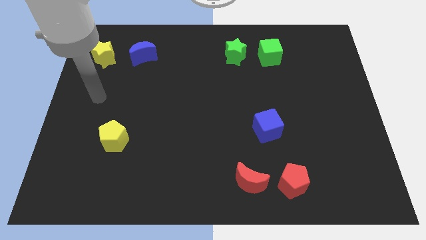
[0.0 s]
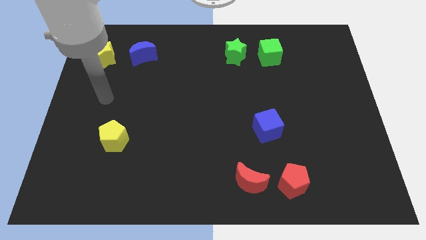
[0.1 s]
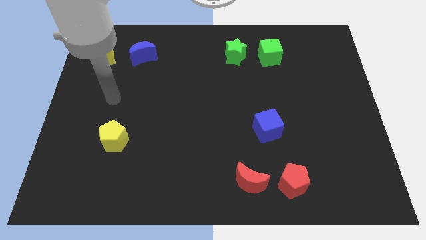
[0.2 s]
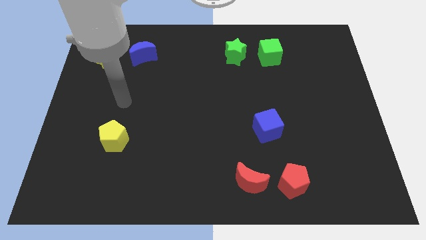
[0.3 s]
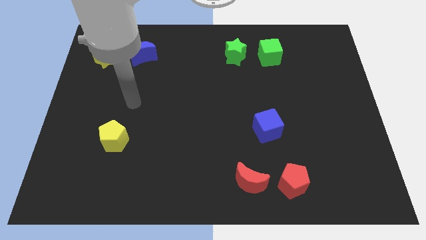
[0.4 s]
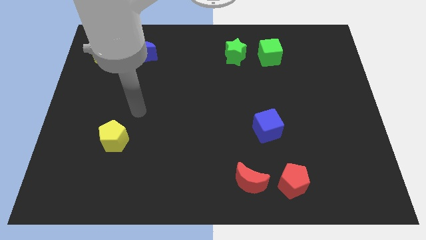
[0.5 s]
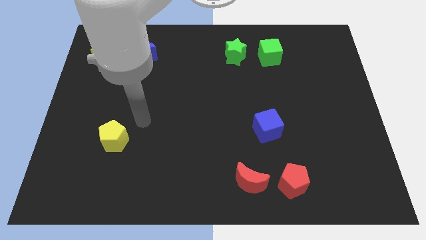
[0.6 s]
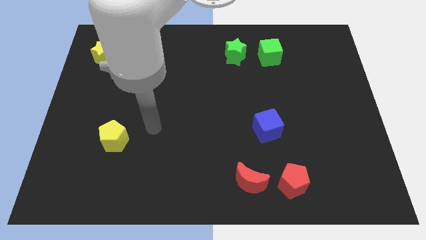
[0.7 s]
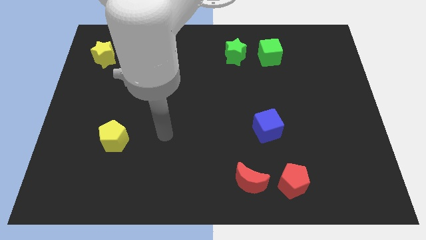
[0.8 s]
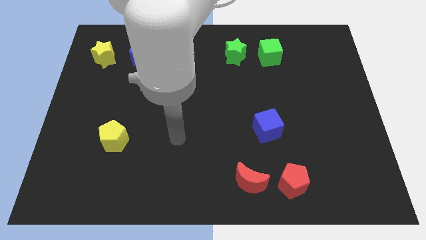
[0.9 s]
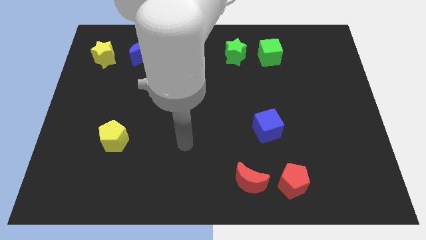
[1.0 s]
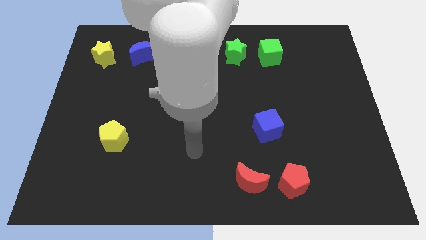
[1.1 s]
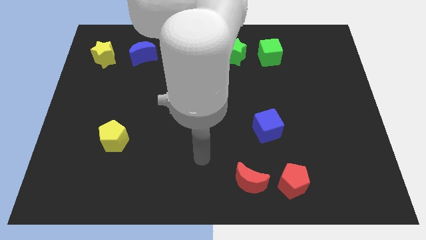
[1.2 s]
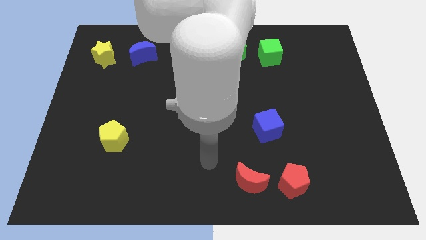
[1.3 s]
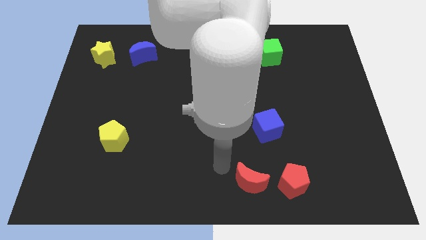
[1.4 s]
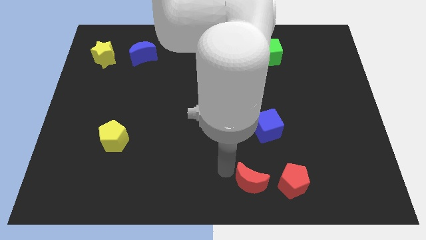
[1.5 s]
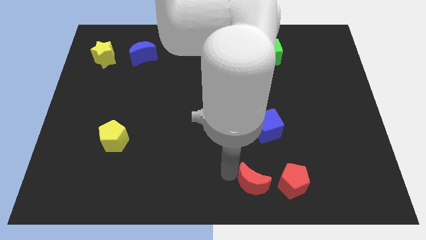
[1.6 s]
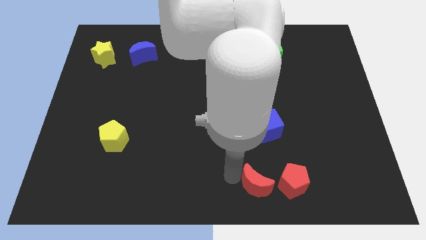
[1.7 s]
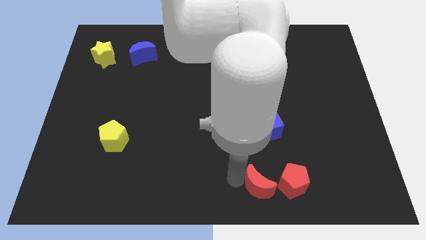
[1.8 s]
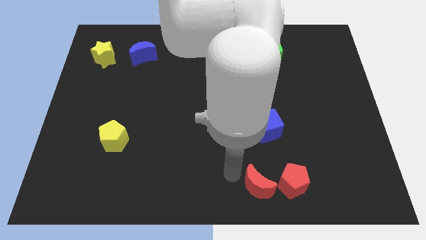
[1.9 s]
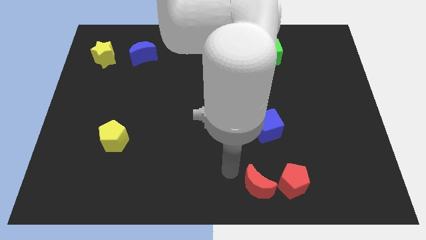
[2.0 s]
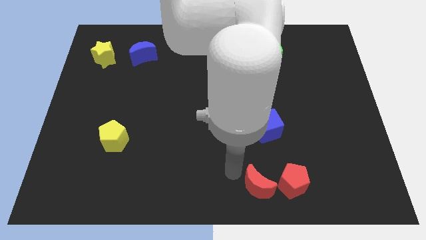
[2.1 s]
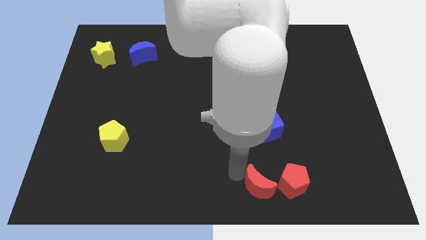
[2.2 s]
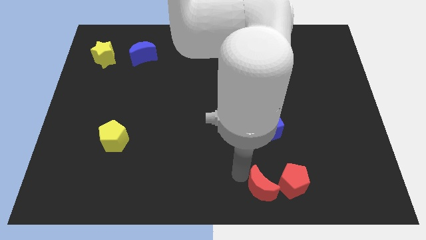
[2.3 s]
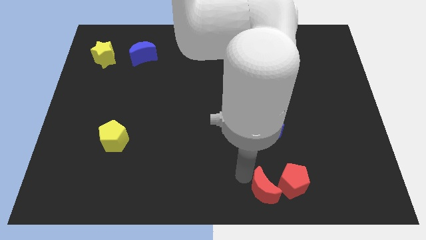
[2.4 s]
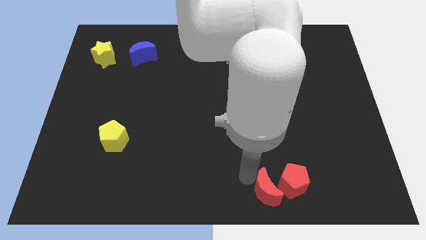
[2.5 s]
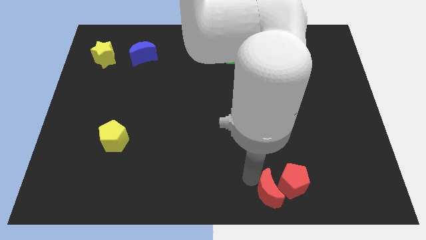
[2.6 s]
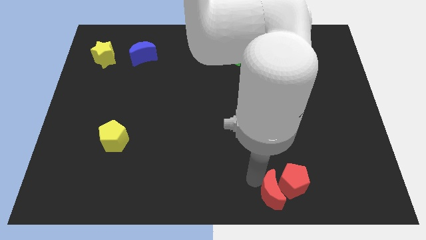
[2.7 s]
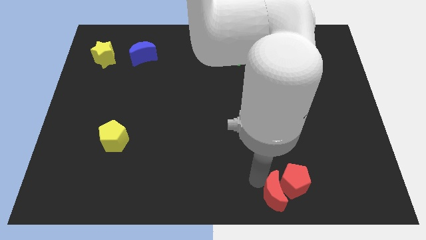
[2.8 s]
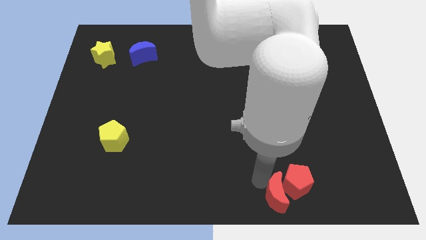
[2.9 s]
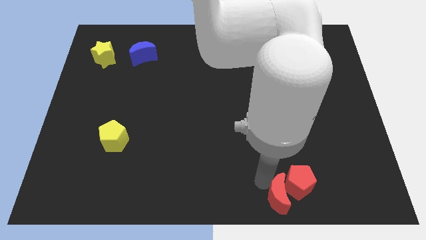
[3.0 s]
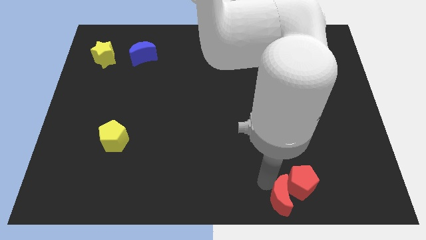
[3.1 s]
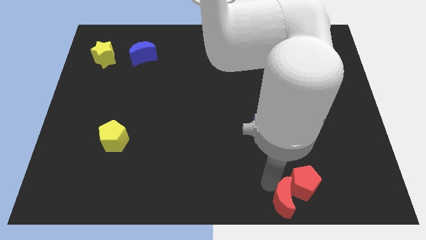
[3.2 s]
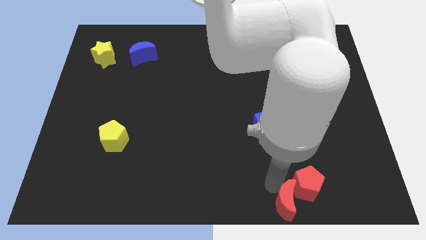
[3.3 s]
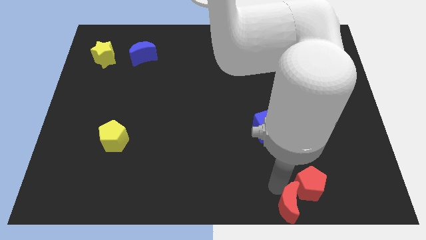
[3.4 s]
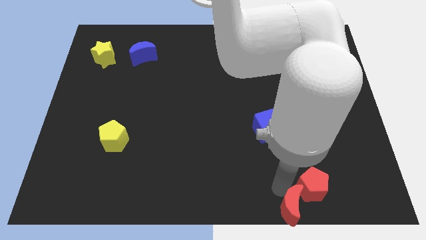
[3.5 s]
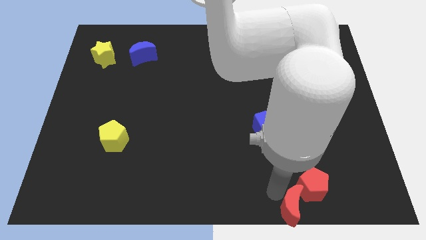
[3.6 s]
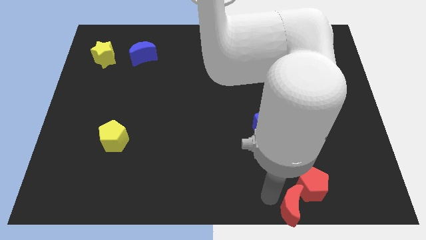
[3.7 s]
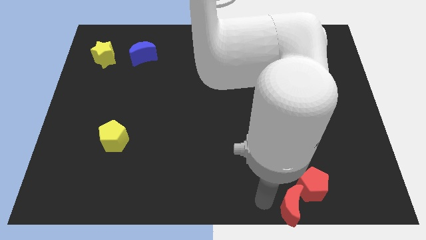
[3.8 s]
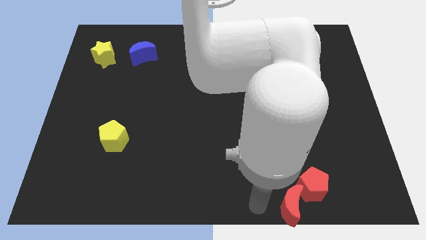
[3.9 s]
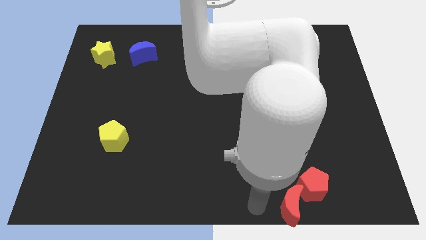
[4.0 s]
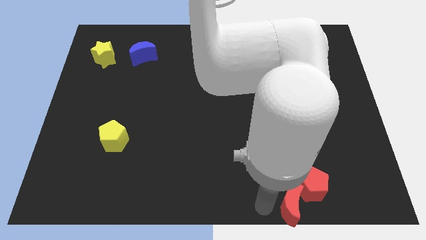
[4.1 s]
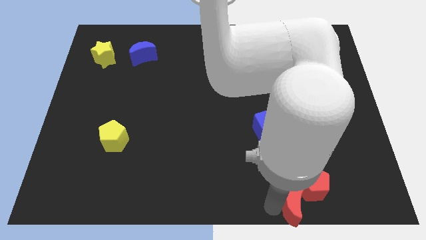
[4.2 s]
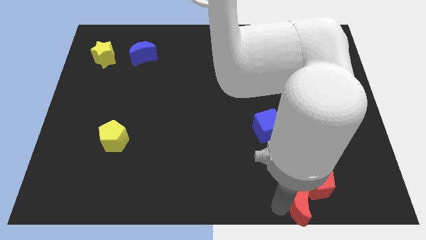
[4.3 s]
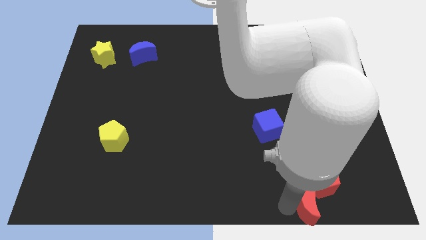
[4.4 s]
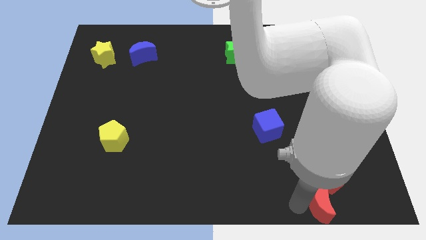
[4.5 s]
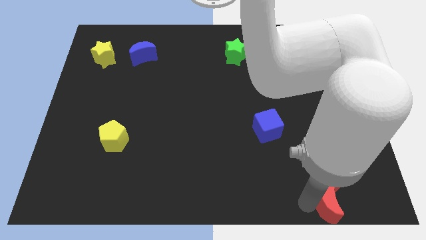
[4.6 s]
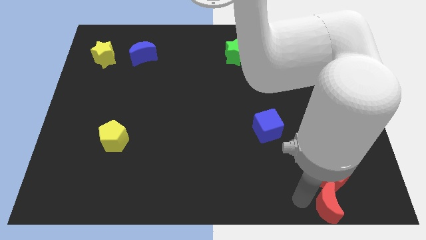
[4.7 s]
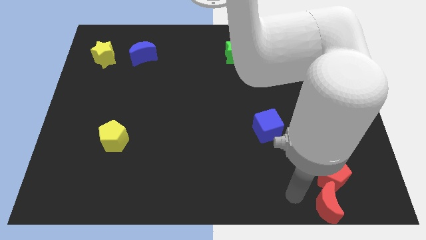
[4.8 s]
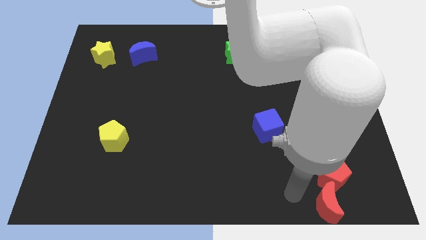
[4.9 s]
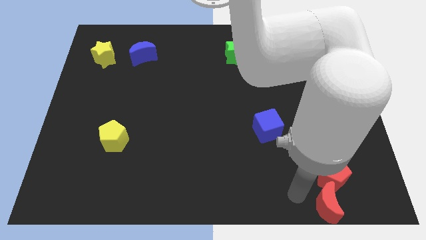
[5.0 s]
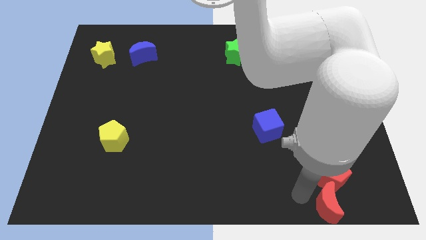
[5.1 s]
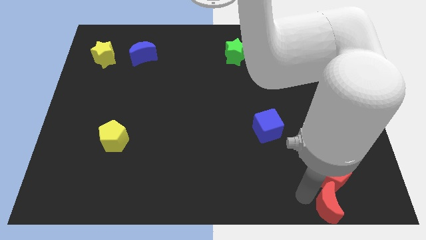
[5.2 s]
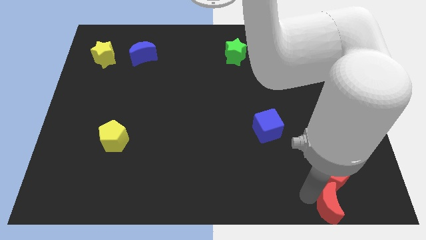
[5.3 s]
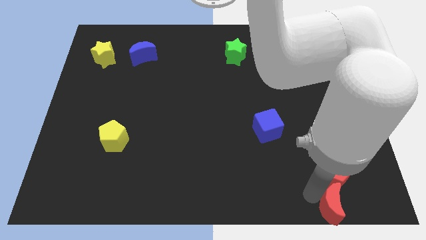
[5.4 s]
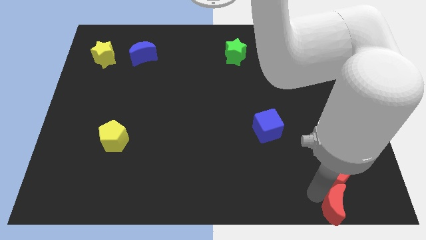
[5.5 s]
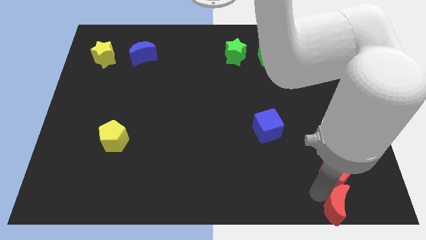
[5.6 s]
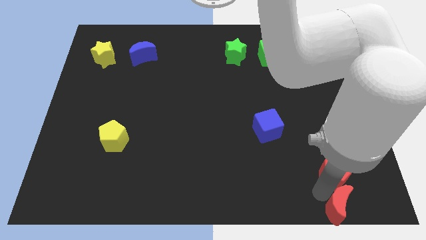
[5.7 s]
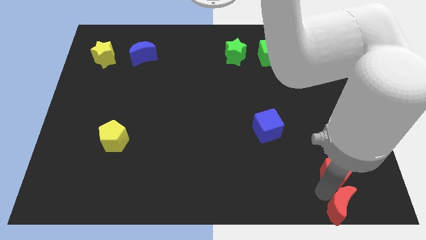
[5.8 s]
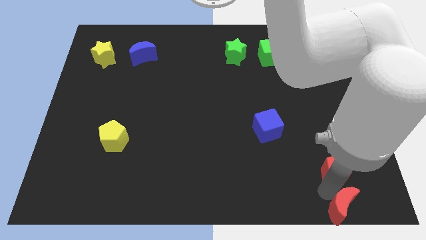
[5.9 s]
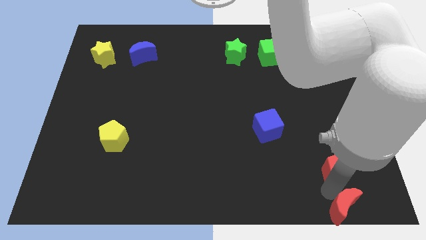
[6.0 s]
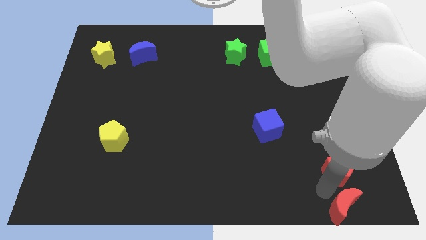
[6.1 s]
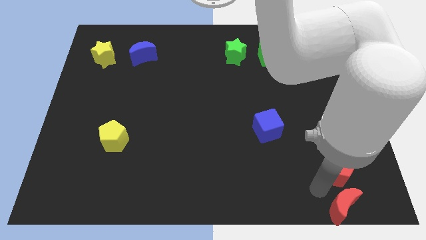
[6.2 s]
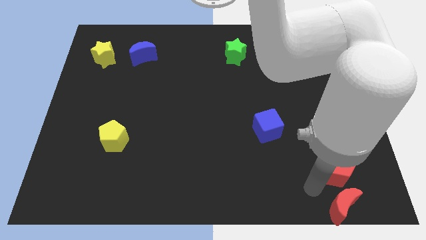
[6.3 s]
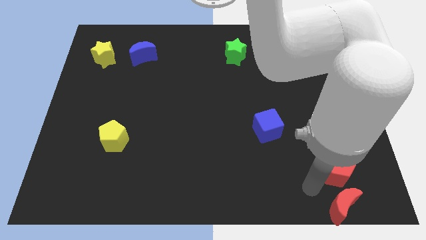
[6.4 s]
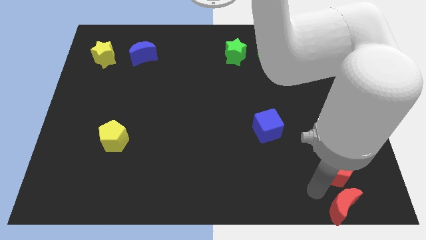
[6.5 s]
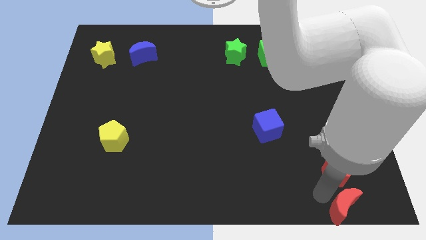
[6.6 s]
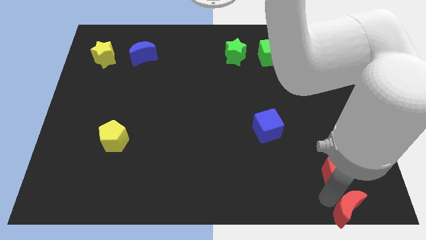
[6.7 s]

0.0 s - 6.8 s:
slide the red moon to the bottom right corner
